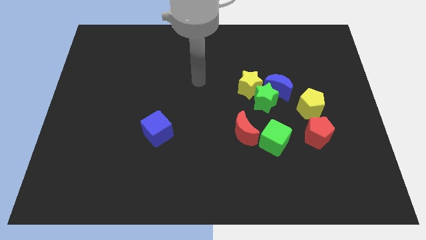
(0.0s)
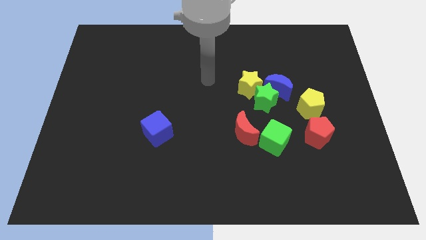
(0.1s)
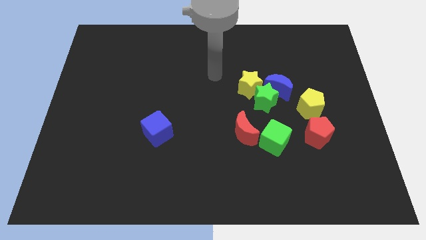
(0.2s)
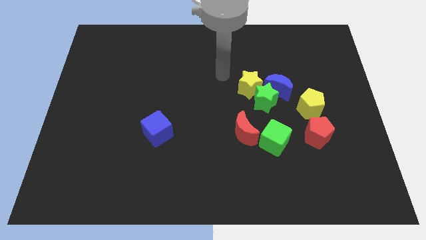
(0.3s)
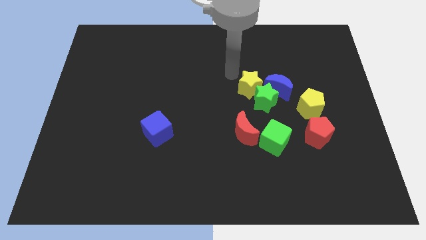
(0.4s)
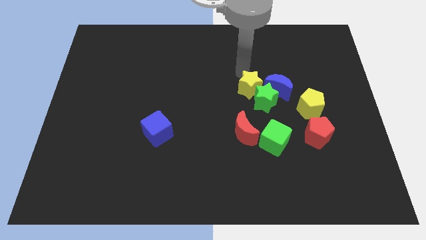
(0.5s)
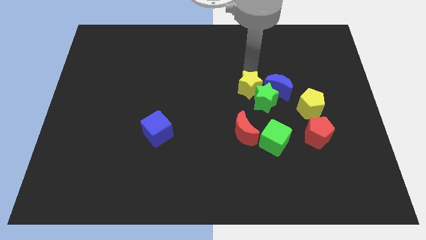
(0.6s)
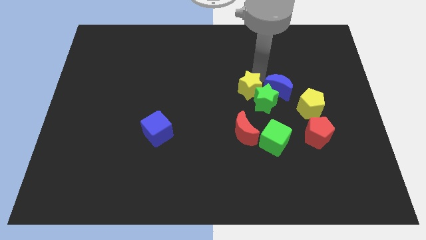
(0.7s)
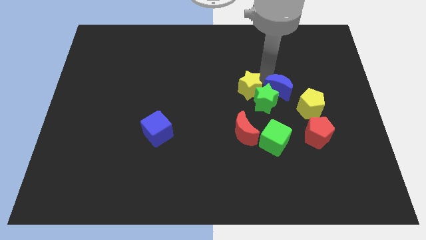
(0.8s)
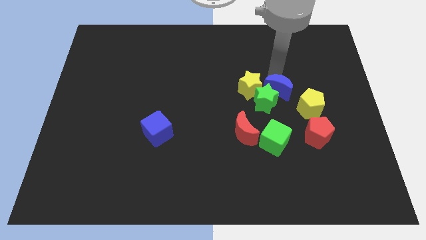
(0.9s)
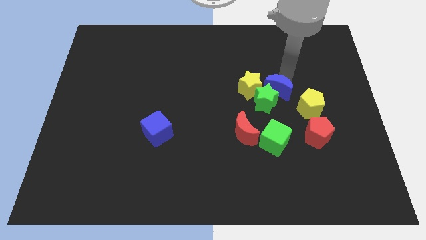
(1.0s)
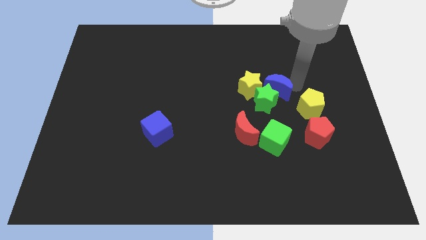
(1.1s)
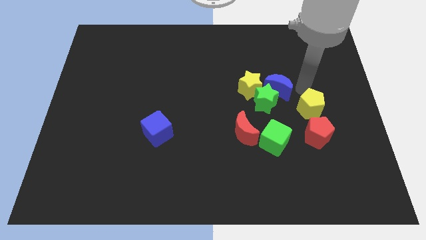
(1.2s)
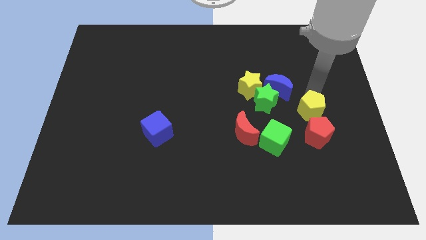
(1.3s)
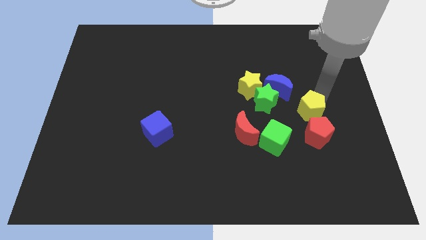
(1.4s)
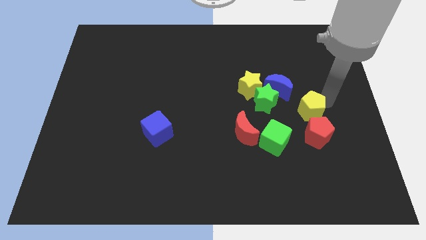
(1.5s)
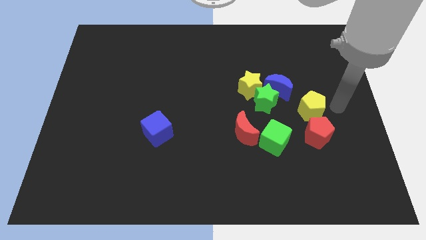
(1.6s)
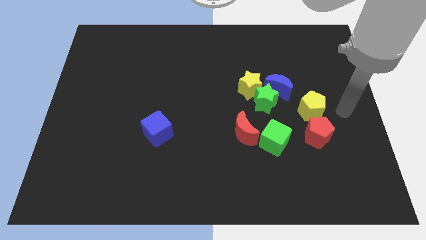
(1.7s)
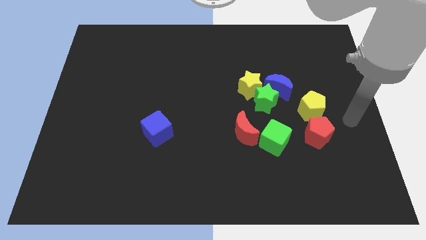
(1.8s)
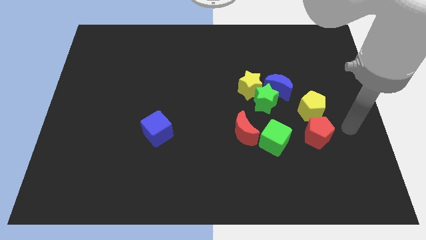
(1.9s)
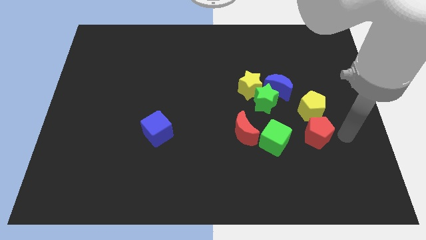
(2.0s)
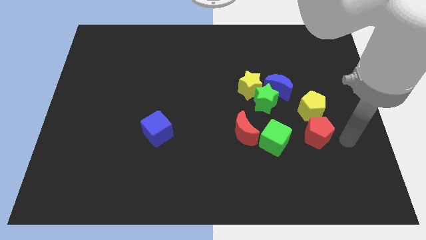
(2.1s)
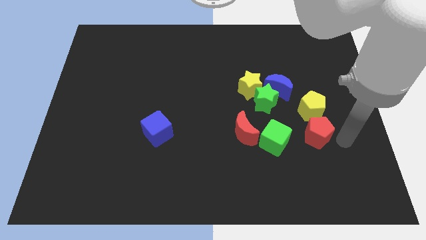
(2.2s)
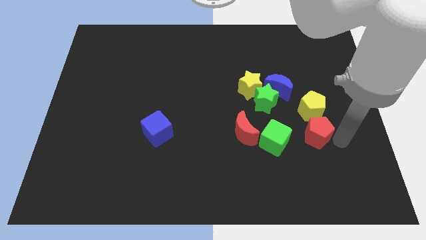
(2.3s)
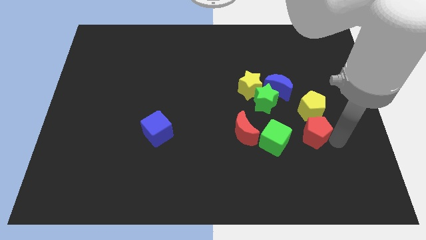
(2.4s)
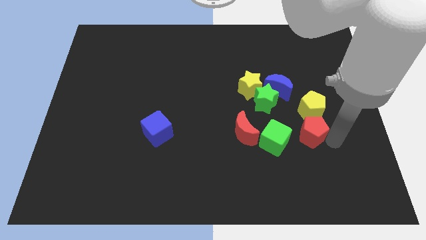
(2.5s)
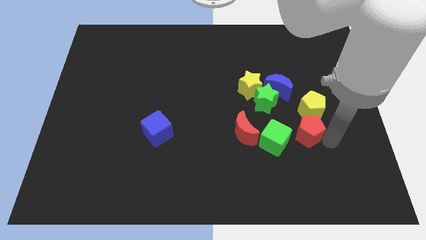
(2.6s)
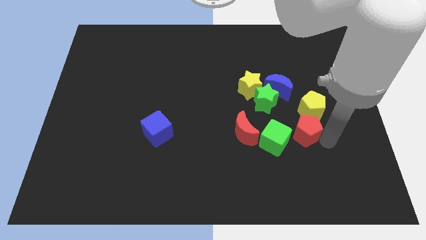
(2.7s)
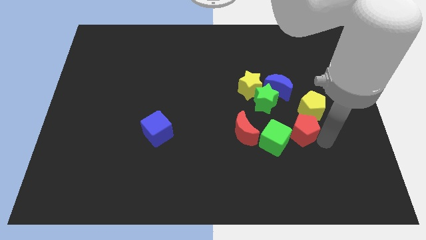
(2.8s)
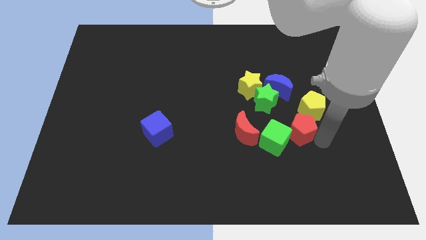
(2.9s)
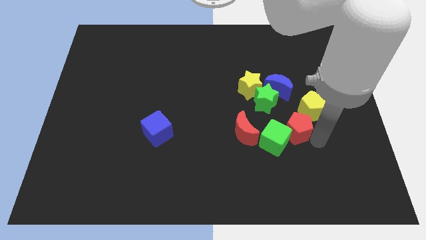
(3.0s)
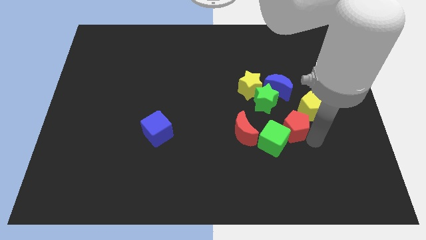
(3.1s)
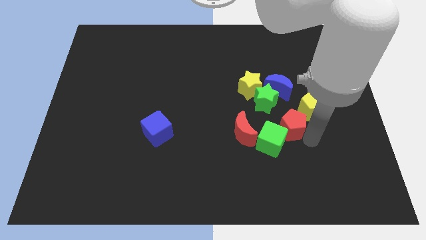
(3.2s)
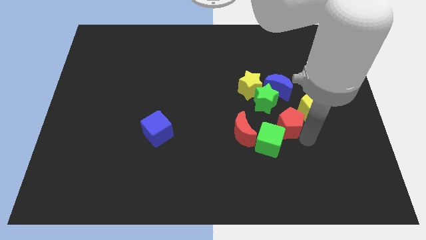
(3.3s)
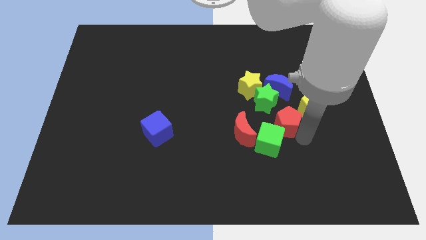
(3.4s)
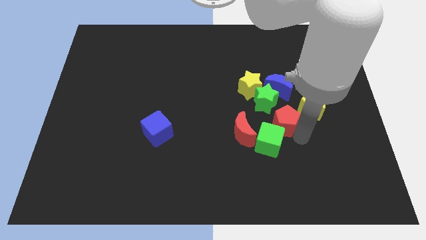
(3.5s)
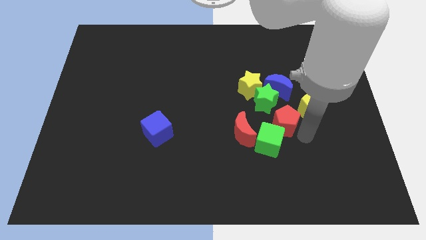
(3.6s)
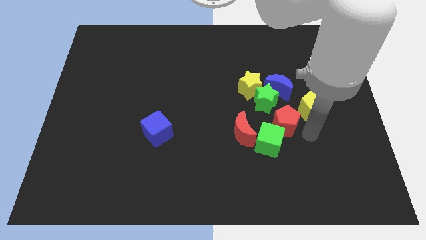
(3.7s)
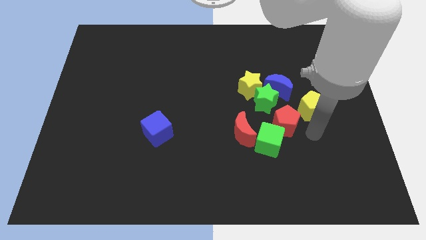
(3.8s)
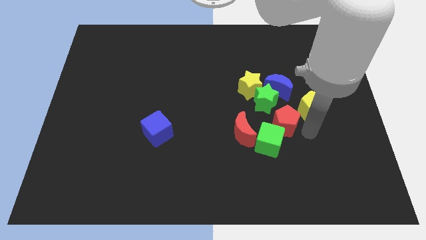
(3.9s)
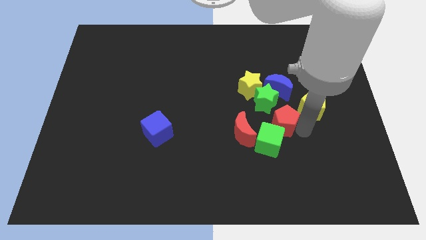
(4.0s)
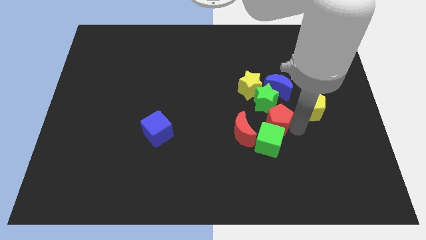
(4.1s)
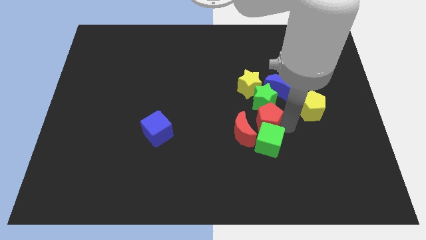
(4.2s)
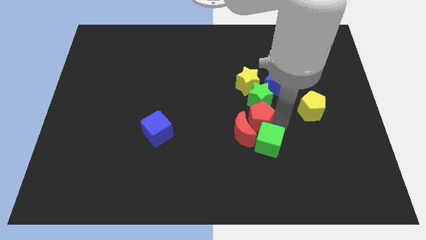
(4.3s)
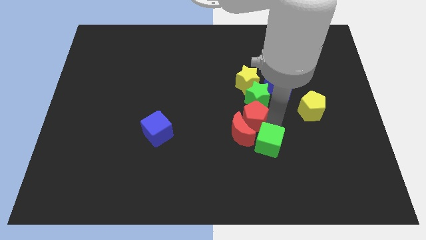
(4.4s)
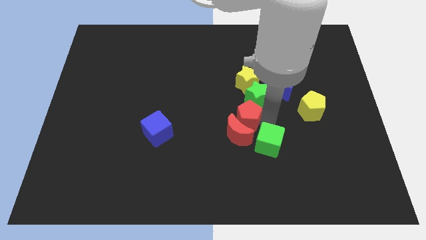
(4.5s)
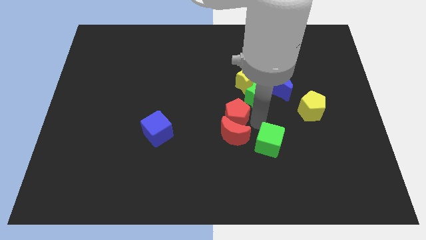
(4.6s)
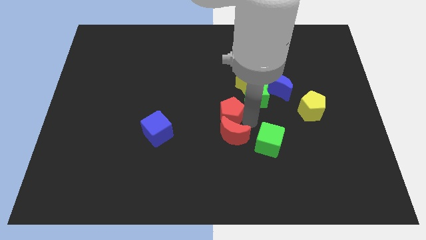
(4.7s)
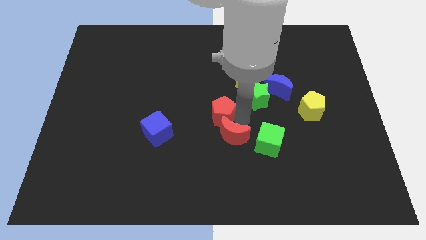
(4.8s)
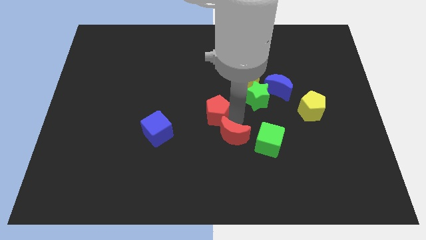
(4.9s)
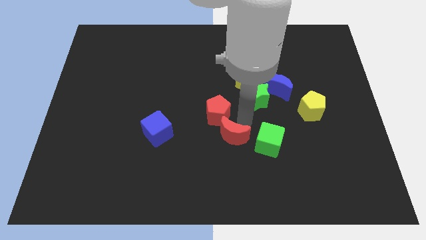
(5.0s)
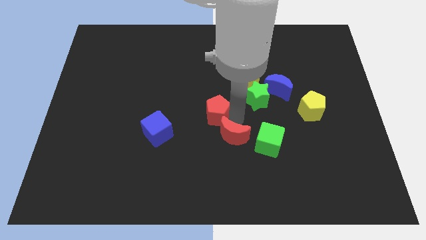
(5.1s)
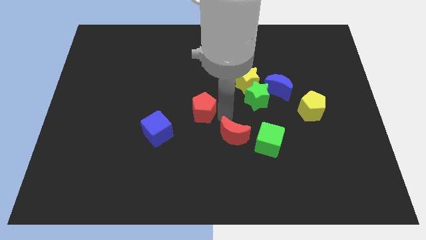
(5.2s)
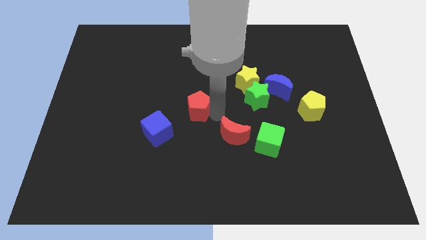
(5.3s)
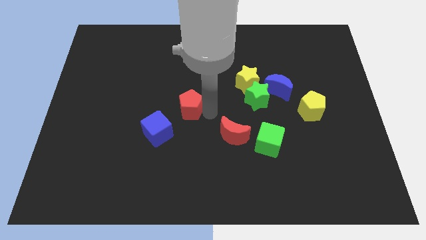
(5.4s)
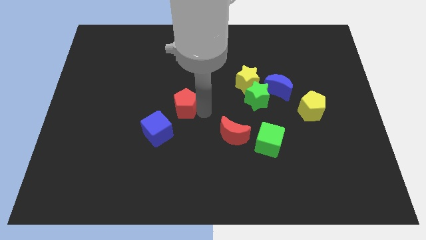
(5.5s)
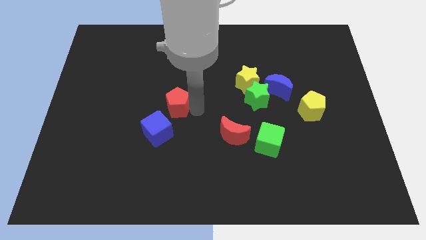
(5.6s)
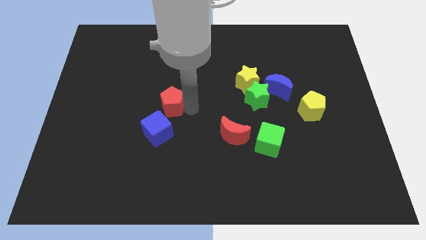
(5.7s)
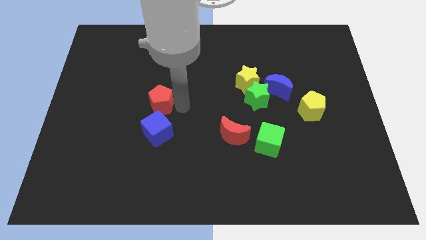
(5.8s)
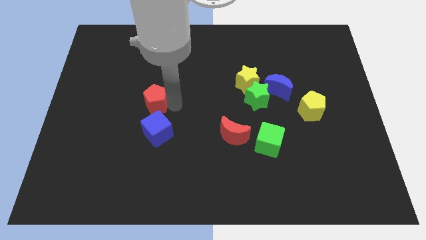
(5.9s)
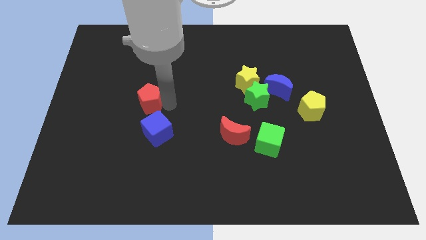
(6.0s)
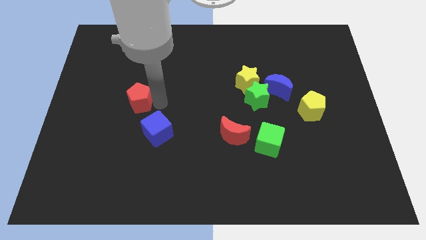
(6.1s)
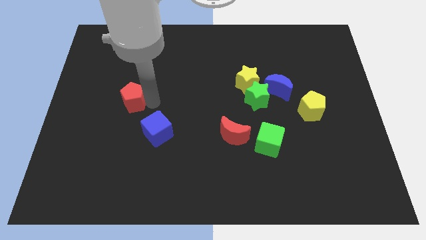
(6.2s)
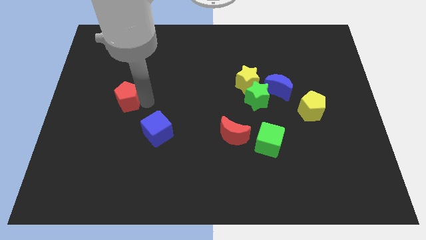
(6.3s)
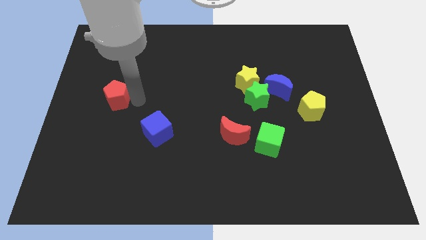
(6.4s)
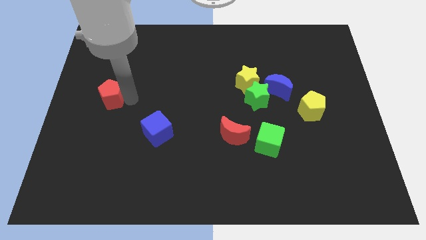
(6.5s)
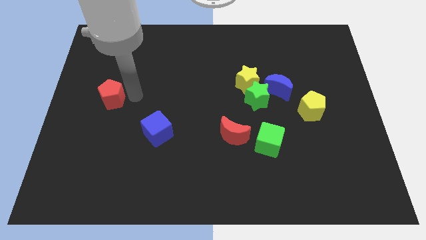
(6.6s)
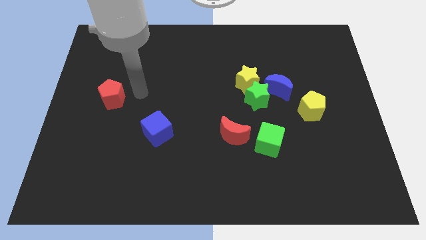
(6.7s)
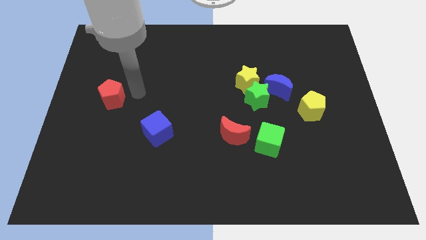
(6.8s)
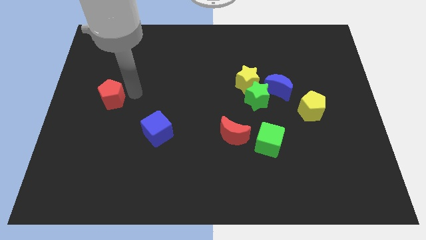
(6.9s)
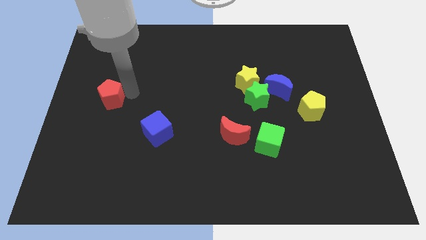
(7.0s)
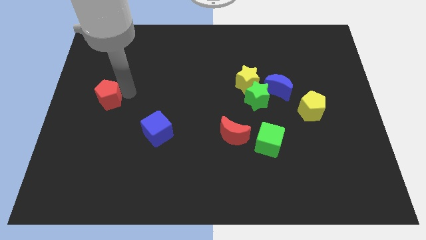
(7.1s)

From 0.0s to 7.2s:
move the red pentagon to the center left
